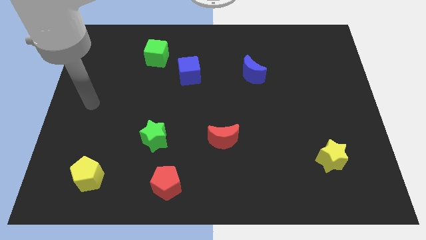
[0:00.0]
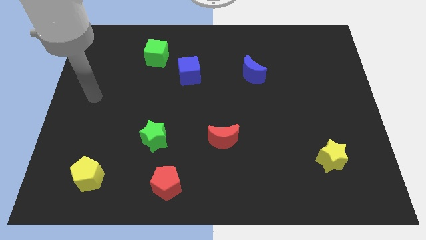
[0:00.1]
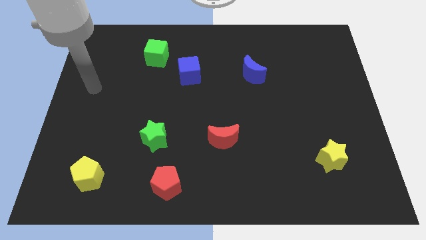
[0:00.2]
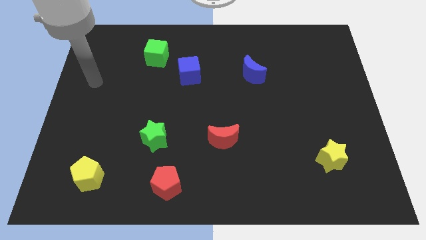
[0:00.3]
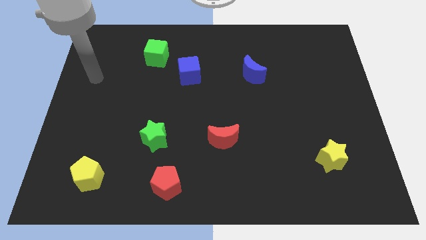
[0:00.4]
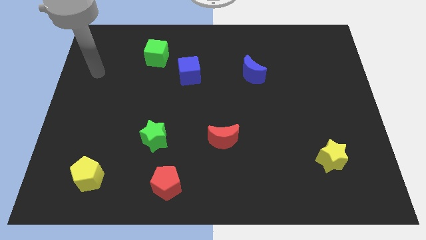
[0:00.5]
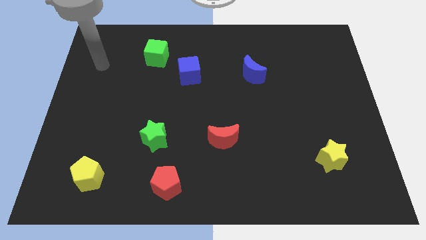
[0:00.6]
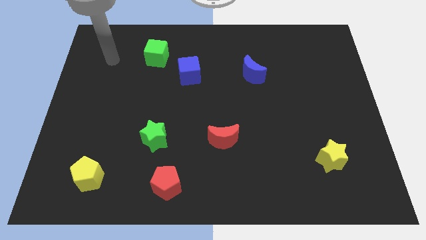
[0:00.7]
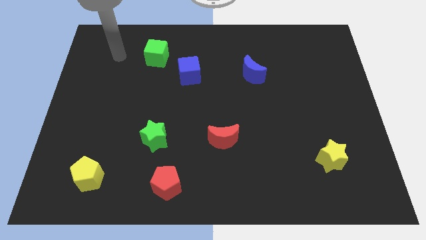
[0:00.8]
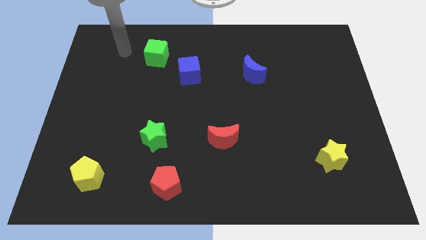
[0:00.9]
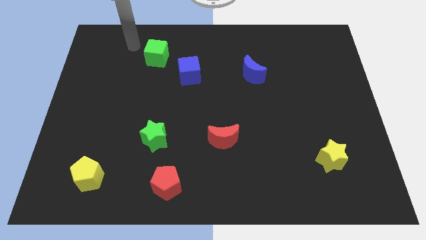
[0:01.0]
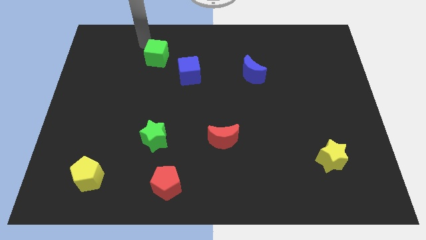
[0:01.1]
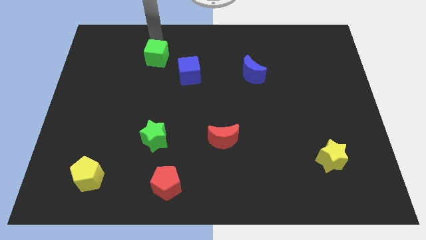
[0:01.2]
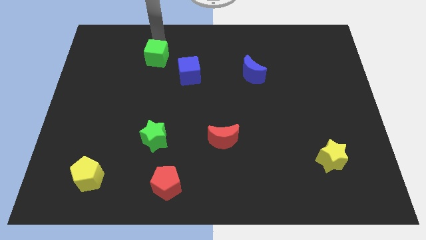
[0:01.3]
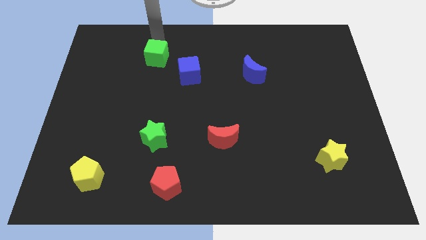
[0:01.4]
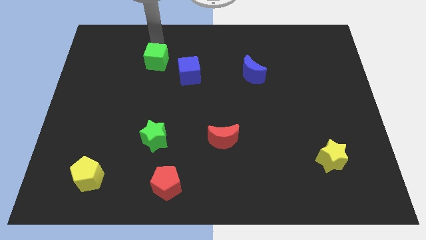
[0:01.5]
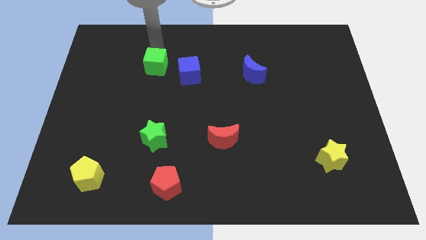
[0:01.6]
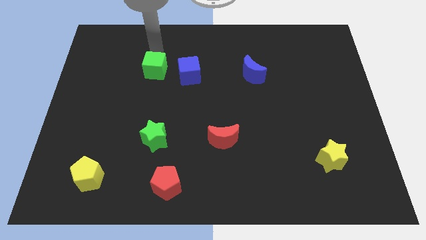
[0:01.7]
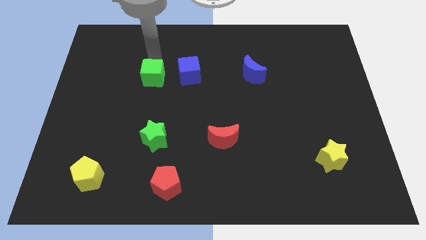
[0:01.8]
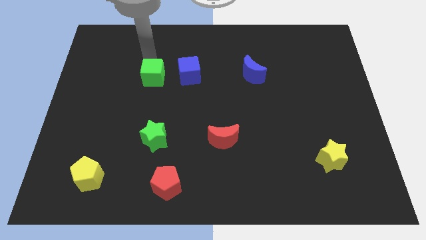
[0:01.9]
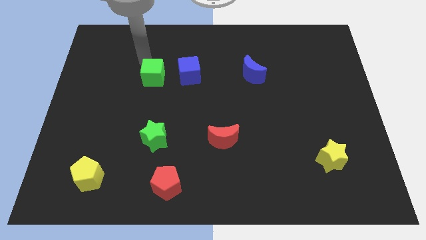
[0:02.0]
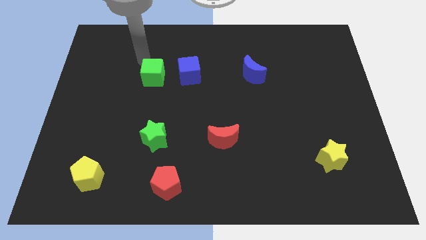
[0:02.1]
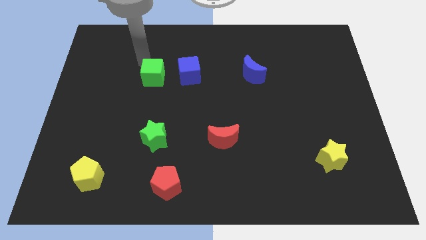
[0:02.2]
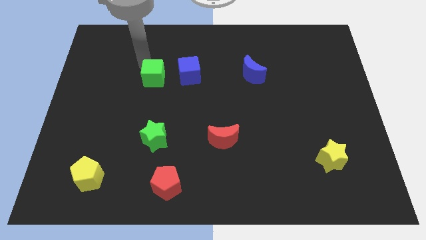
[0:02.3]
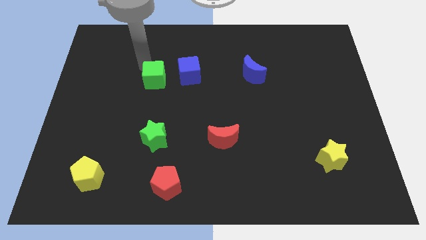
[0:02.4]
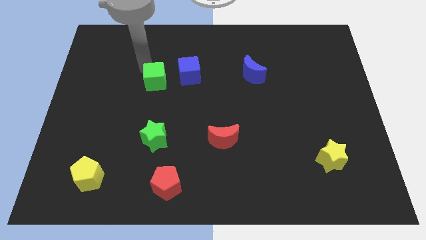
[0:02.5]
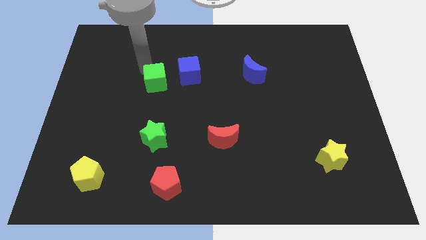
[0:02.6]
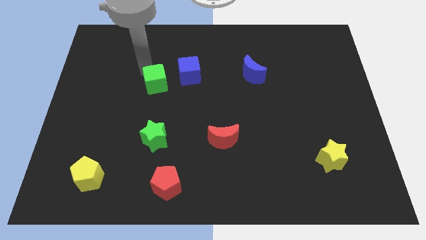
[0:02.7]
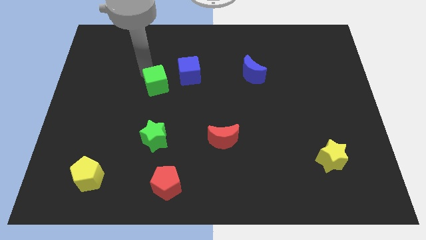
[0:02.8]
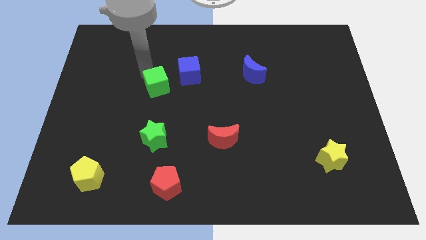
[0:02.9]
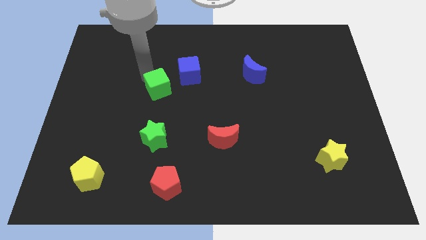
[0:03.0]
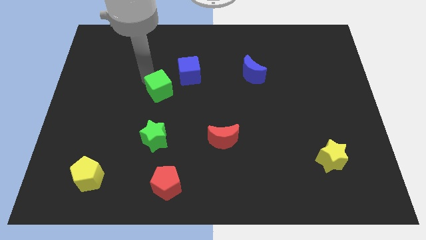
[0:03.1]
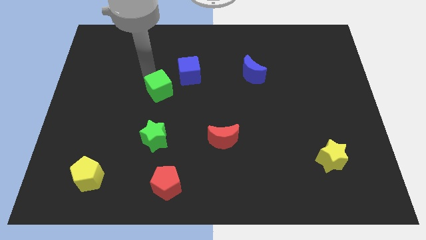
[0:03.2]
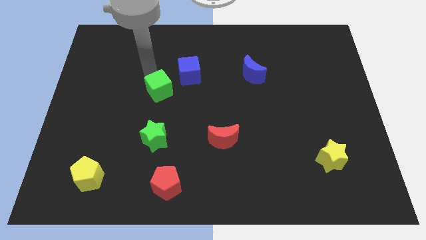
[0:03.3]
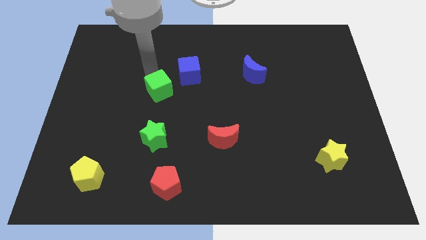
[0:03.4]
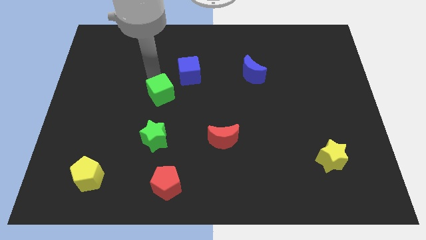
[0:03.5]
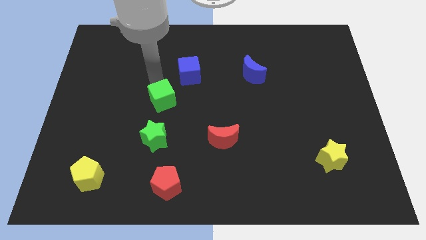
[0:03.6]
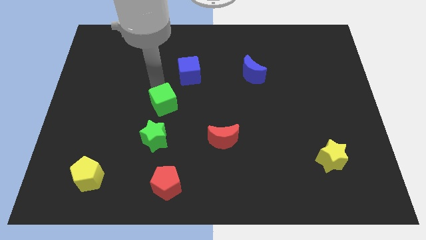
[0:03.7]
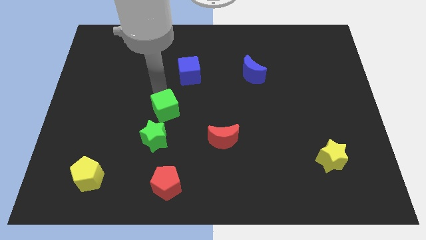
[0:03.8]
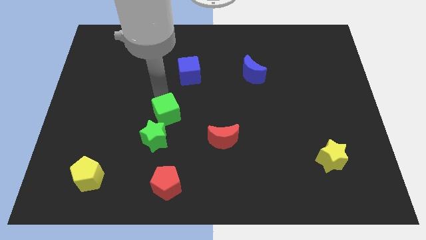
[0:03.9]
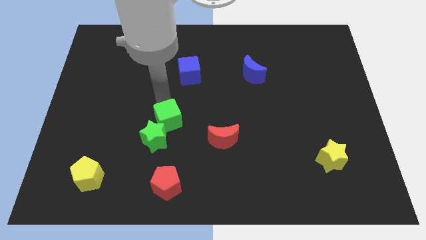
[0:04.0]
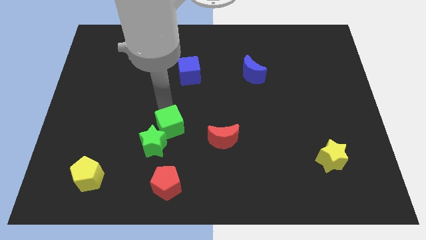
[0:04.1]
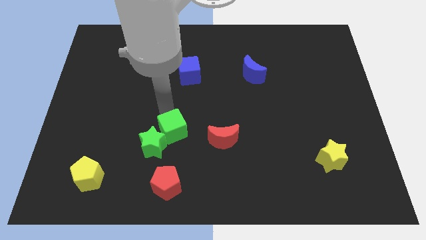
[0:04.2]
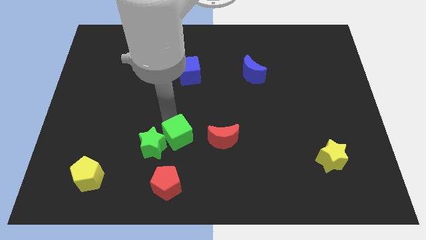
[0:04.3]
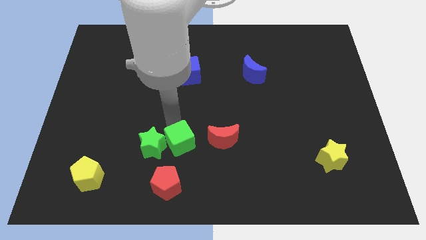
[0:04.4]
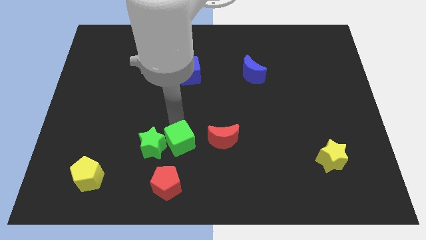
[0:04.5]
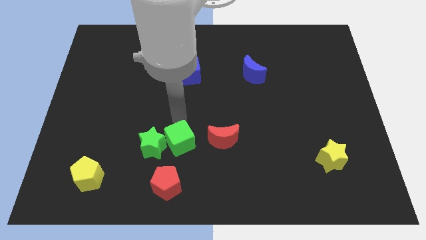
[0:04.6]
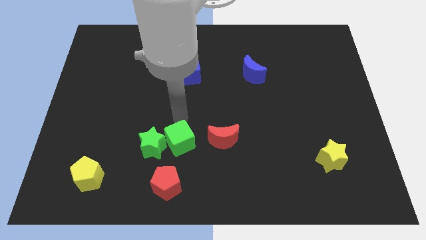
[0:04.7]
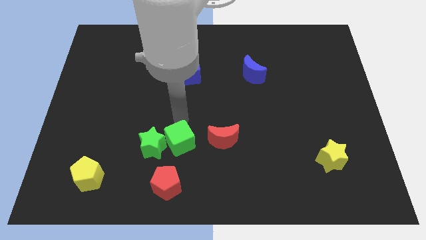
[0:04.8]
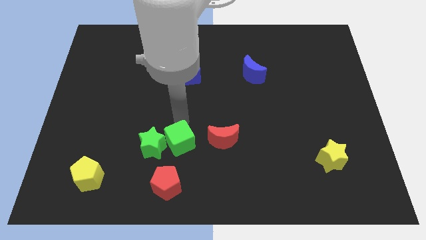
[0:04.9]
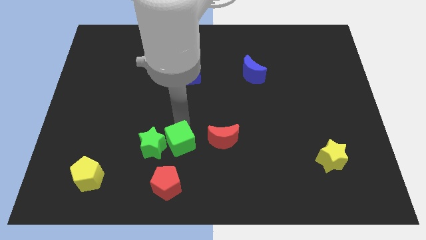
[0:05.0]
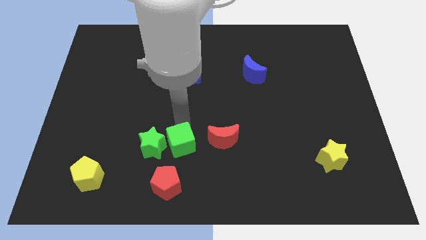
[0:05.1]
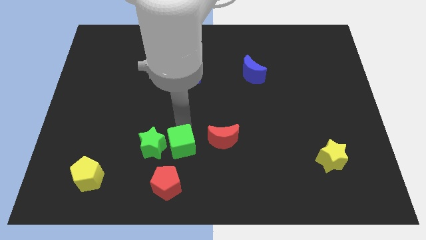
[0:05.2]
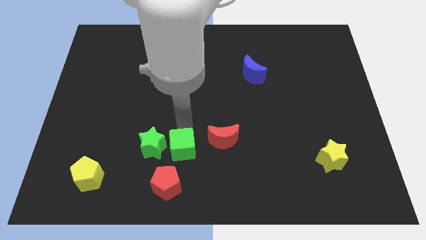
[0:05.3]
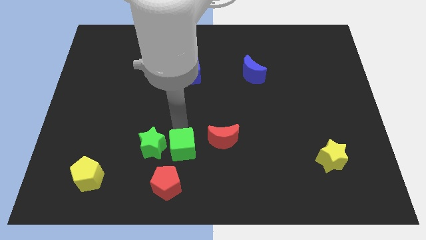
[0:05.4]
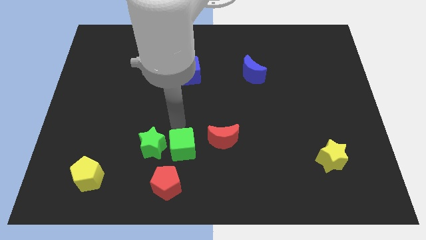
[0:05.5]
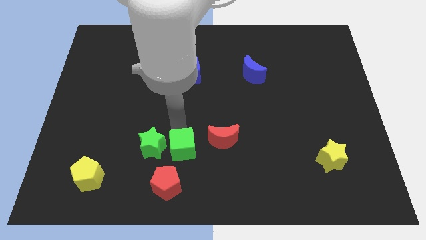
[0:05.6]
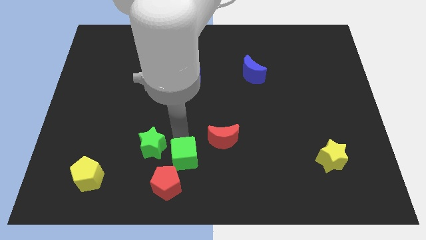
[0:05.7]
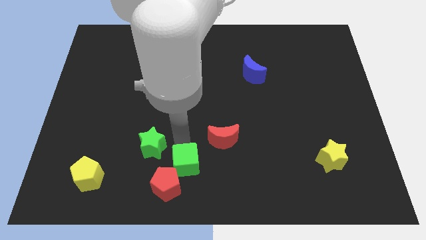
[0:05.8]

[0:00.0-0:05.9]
push the green cube to the bottom

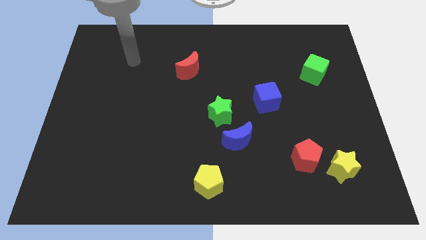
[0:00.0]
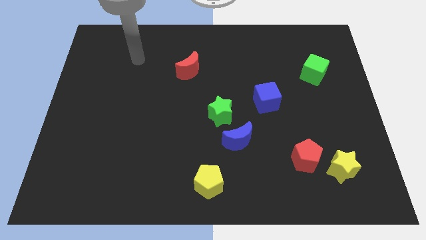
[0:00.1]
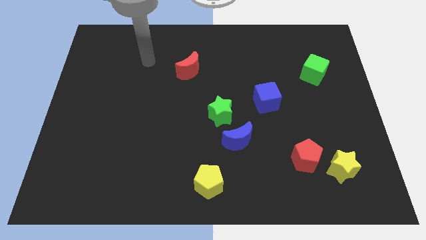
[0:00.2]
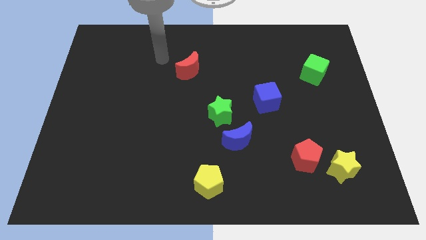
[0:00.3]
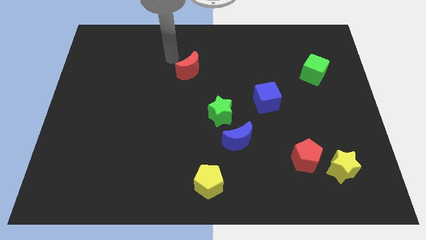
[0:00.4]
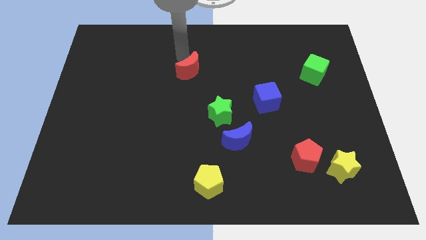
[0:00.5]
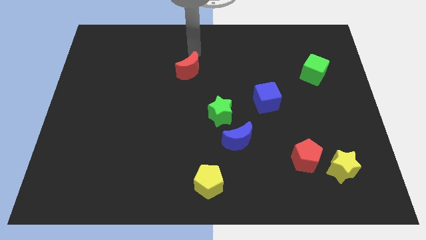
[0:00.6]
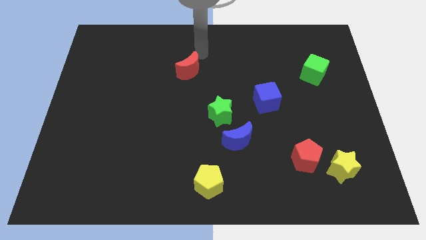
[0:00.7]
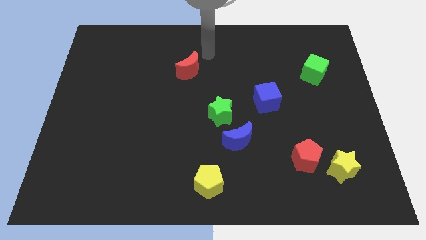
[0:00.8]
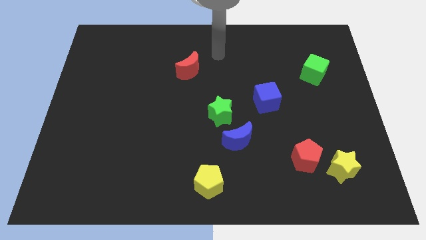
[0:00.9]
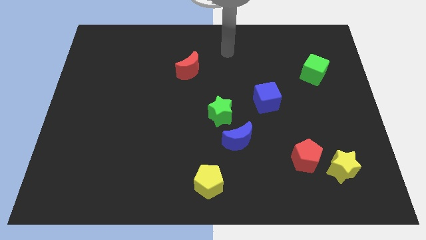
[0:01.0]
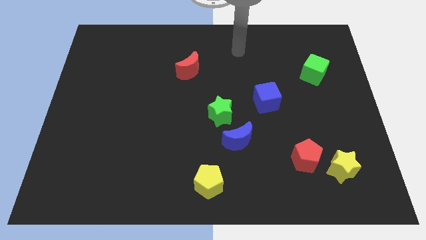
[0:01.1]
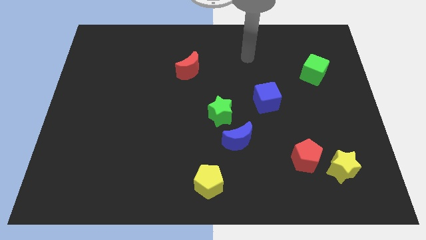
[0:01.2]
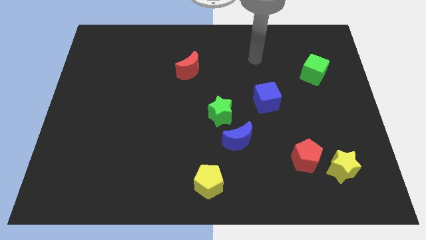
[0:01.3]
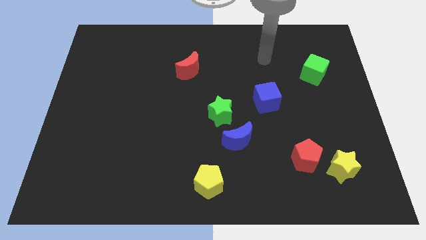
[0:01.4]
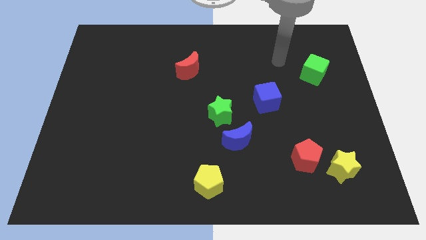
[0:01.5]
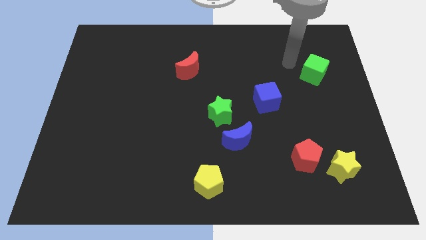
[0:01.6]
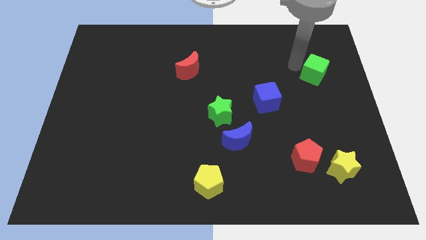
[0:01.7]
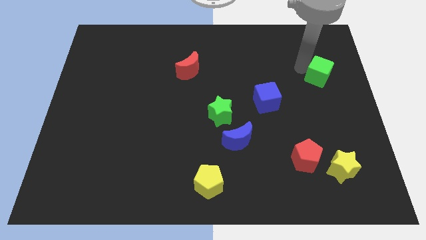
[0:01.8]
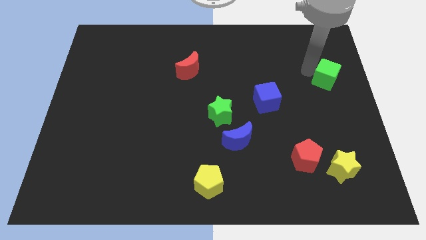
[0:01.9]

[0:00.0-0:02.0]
push the green cube to the right side of the board
